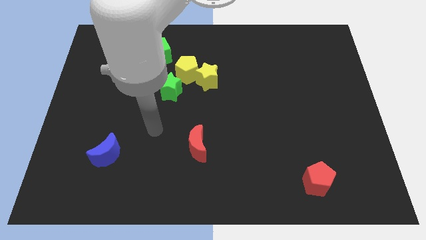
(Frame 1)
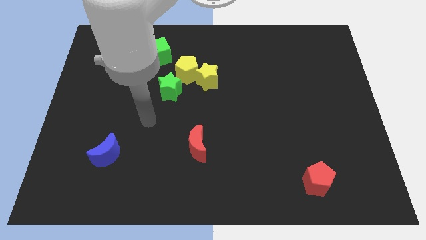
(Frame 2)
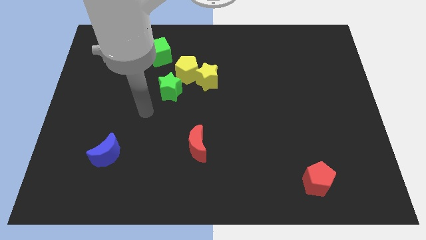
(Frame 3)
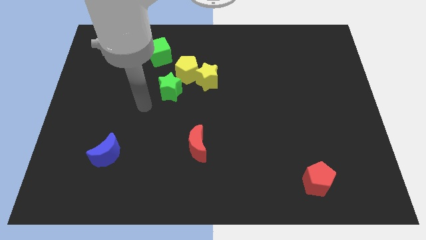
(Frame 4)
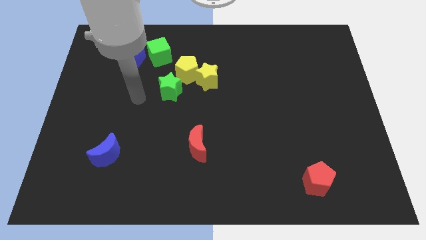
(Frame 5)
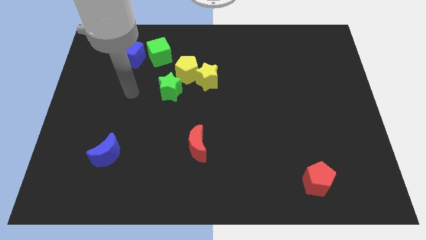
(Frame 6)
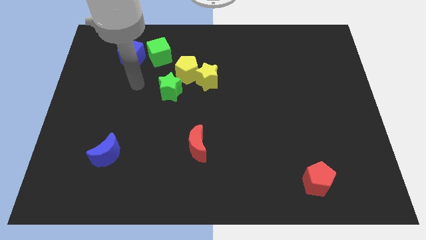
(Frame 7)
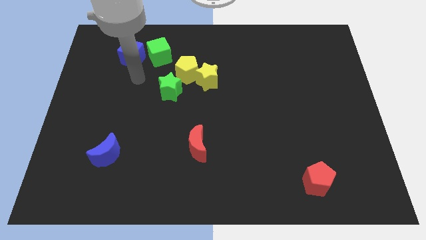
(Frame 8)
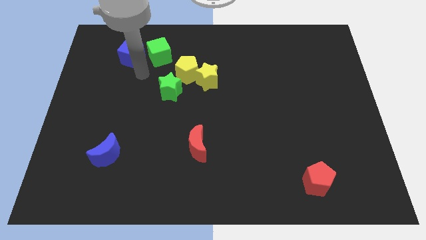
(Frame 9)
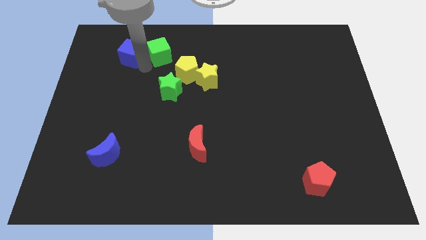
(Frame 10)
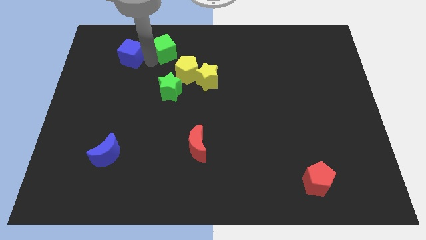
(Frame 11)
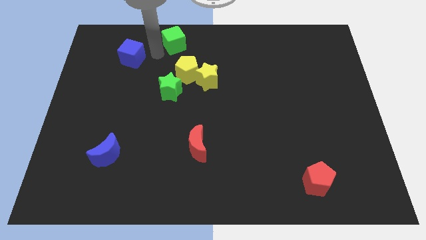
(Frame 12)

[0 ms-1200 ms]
pull the blue cube apart from the green cube

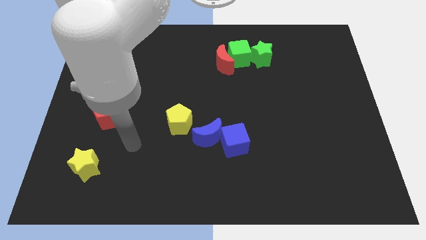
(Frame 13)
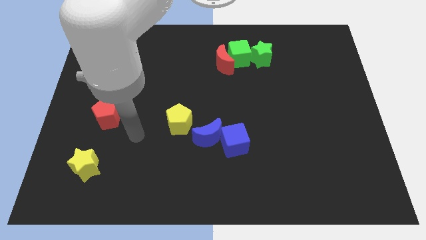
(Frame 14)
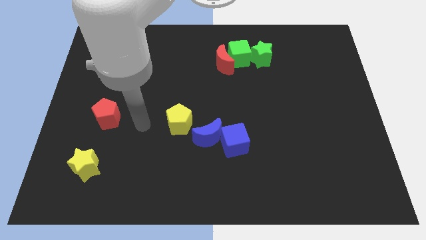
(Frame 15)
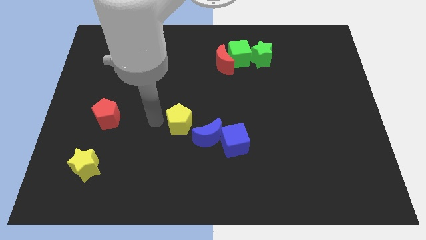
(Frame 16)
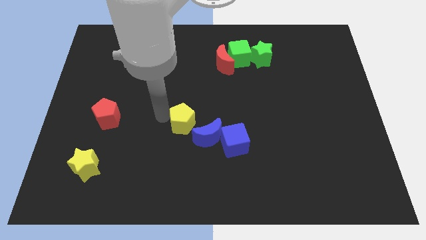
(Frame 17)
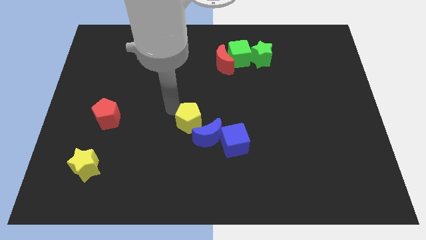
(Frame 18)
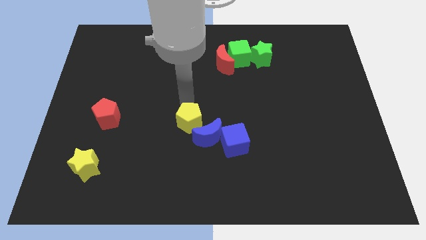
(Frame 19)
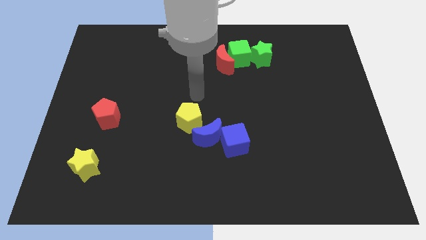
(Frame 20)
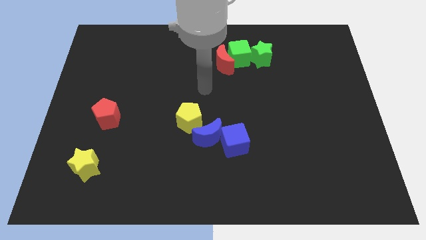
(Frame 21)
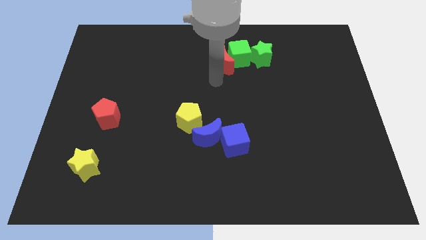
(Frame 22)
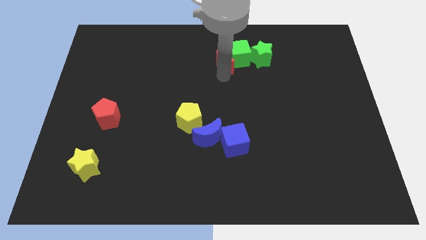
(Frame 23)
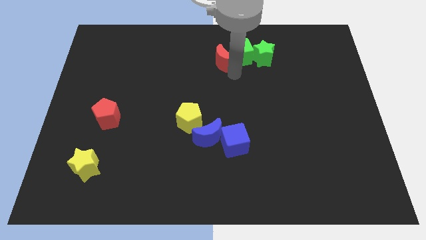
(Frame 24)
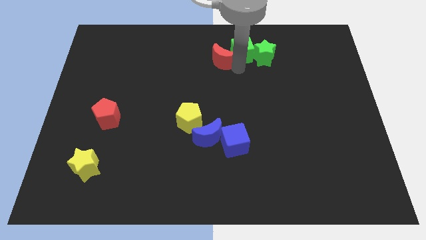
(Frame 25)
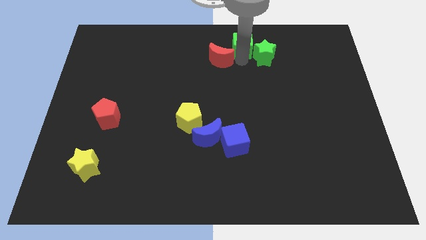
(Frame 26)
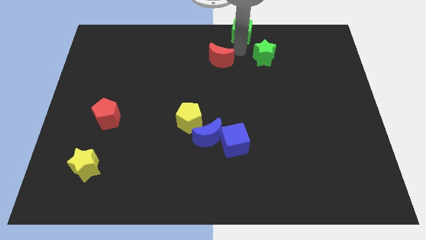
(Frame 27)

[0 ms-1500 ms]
pull the red moon apart from the green cube

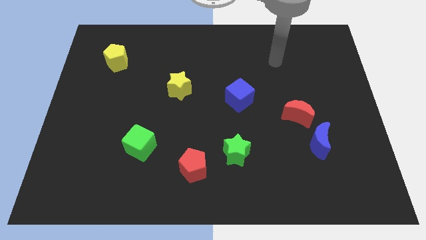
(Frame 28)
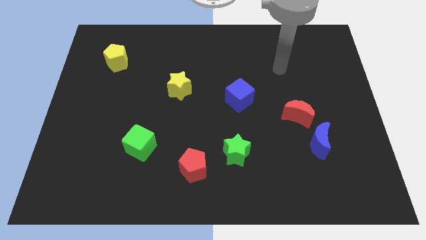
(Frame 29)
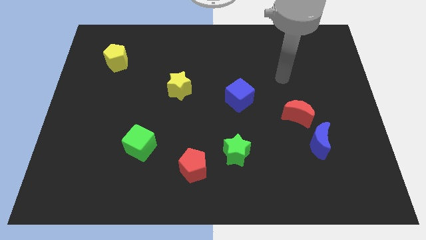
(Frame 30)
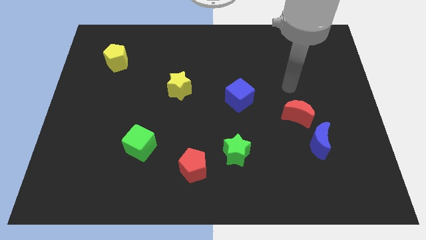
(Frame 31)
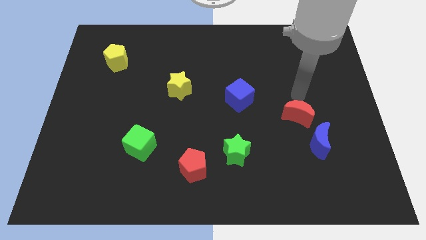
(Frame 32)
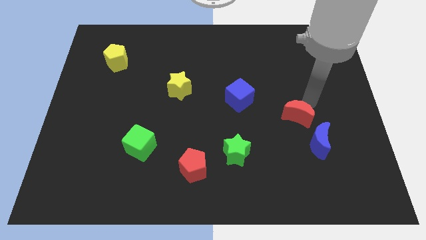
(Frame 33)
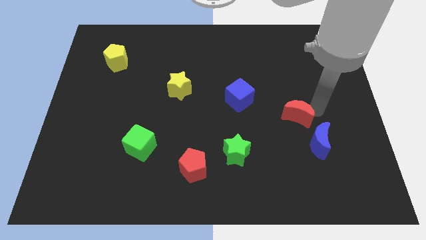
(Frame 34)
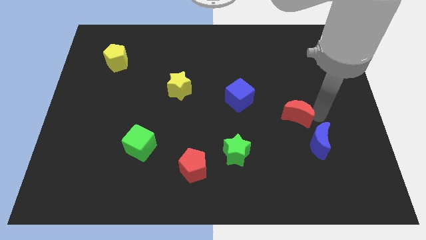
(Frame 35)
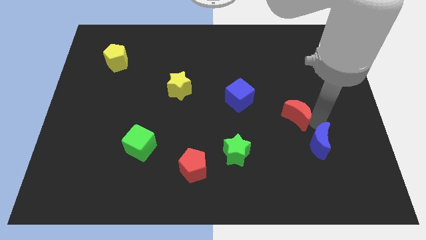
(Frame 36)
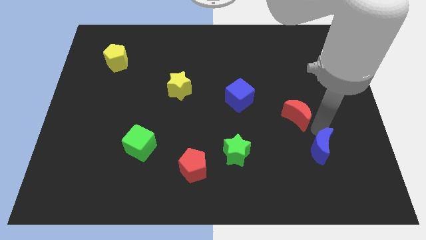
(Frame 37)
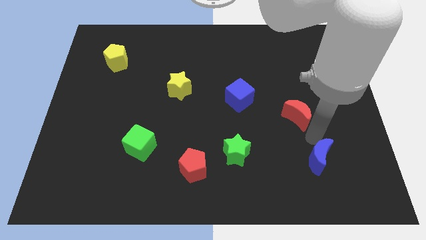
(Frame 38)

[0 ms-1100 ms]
pull the red moon apart from the blue moon

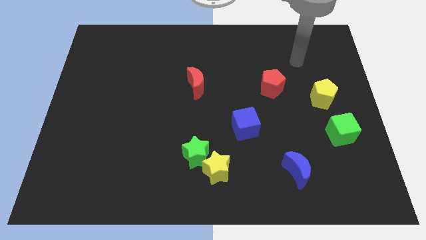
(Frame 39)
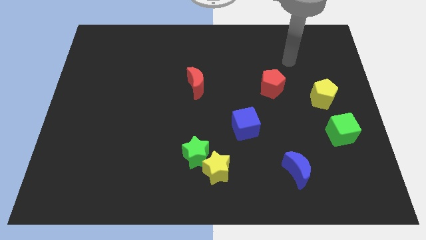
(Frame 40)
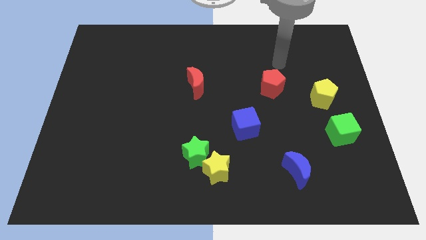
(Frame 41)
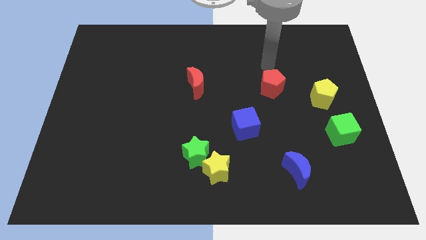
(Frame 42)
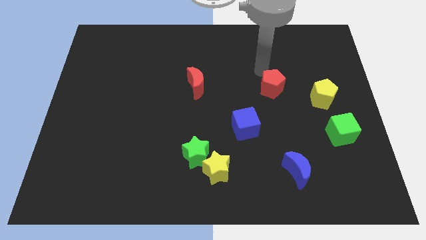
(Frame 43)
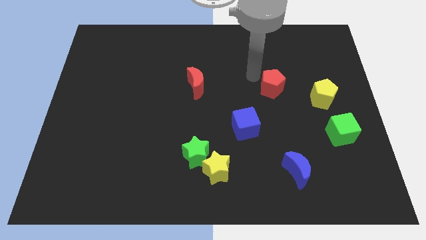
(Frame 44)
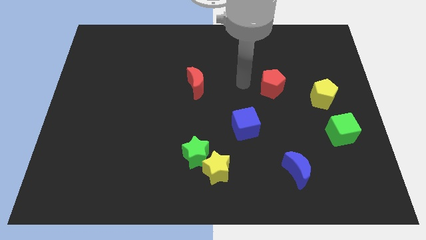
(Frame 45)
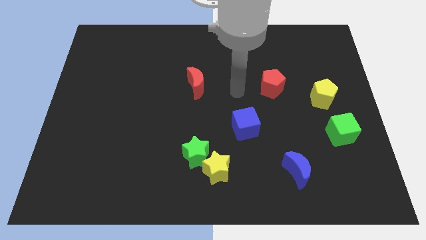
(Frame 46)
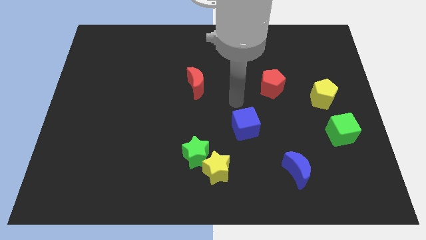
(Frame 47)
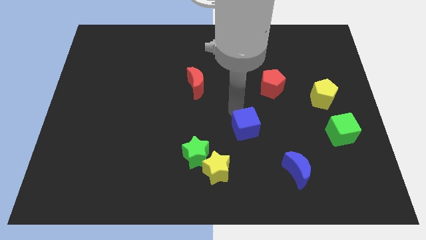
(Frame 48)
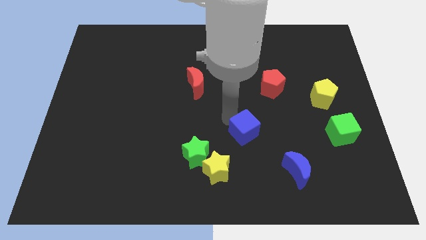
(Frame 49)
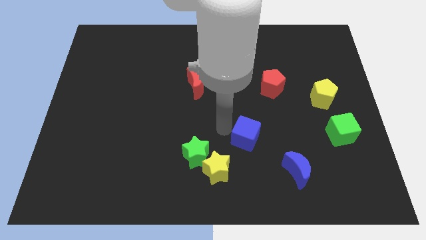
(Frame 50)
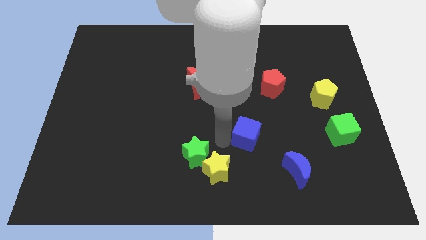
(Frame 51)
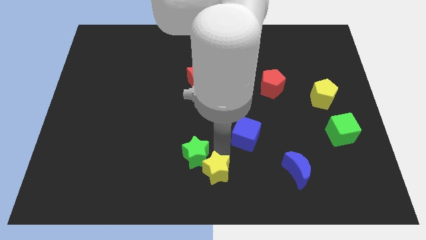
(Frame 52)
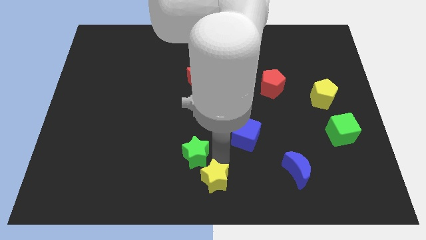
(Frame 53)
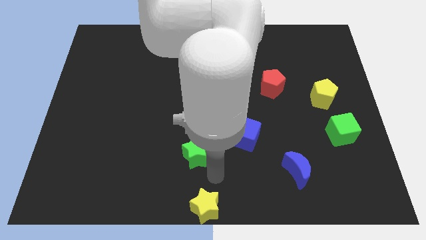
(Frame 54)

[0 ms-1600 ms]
separate the green star from the yellow star

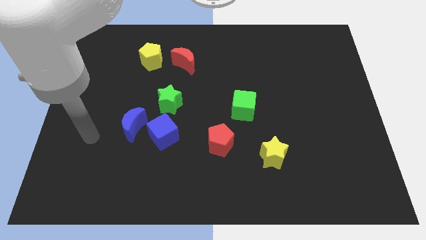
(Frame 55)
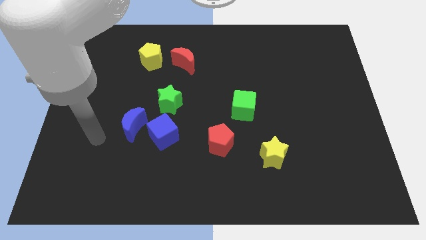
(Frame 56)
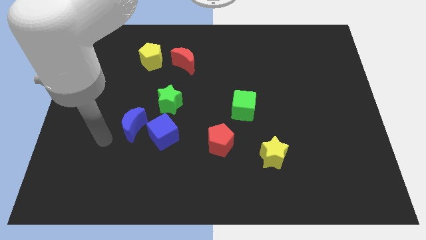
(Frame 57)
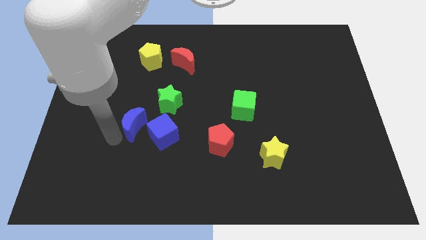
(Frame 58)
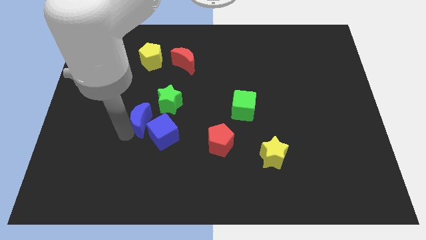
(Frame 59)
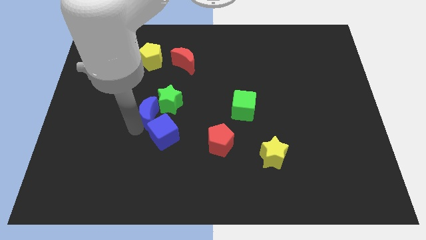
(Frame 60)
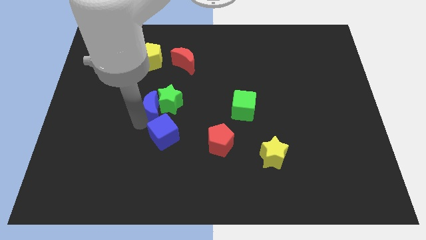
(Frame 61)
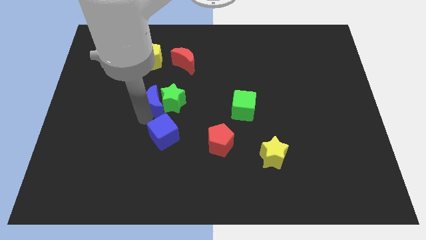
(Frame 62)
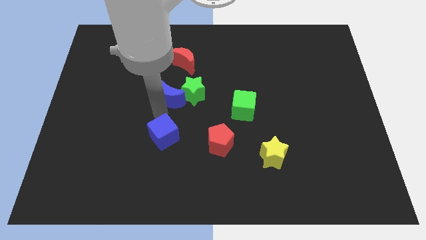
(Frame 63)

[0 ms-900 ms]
separate the blue cube from the blue moon and green star

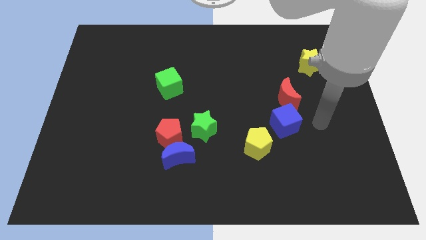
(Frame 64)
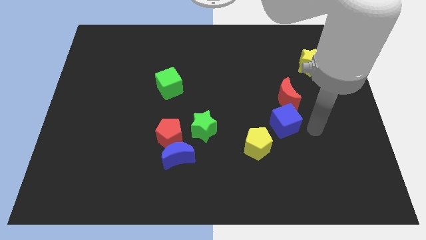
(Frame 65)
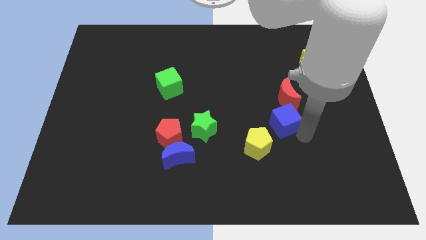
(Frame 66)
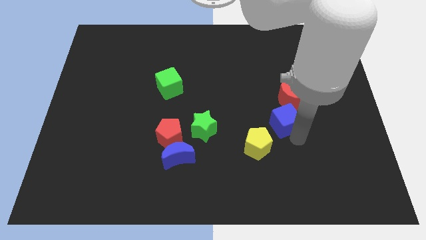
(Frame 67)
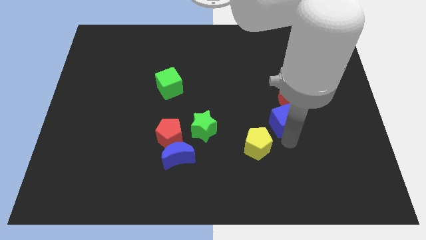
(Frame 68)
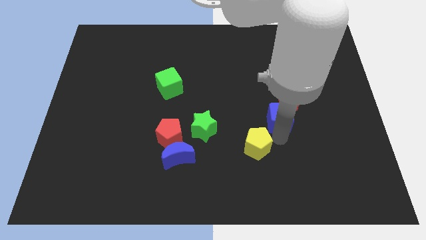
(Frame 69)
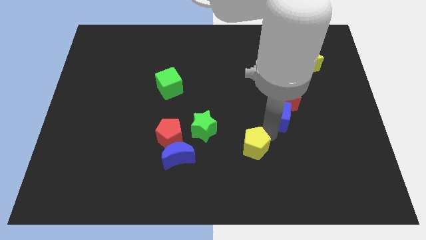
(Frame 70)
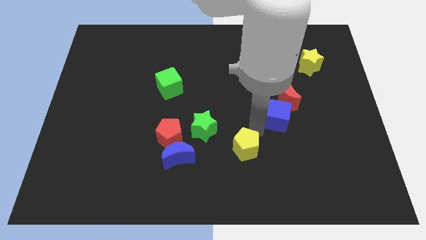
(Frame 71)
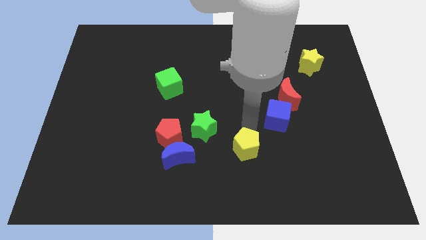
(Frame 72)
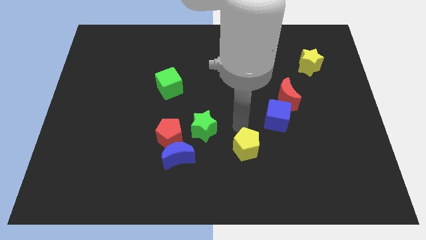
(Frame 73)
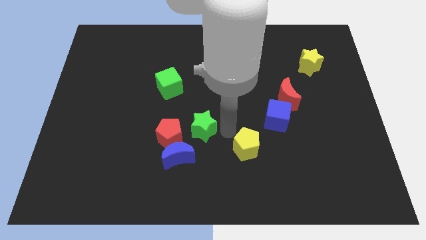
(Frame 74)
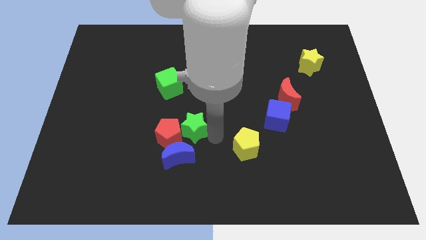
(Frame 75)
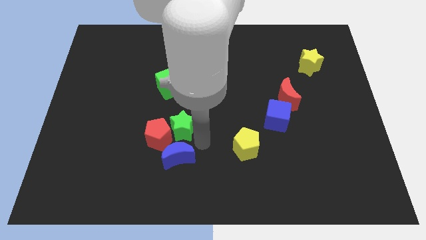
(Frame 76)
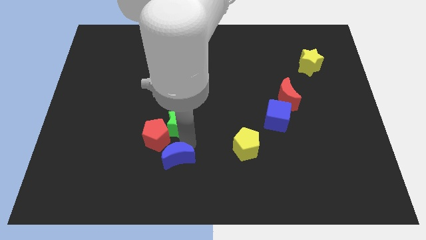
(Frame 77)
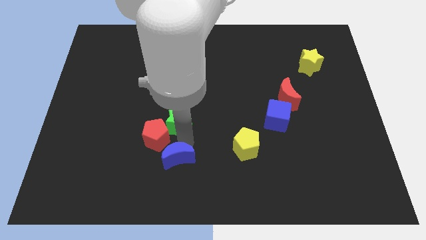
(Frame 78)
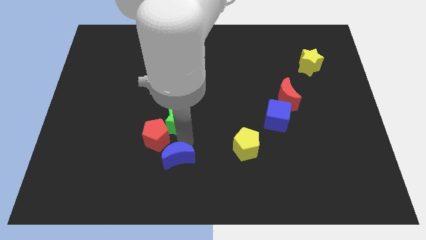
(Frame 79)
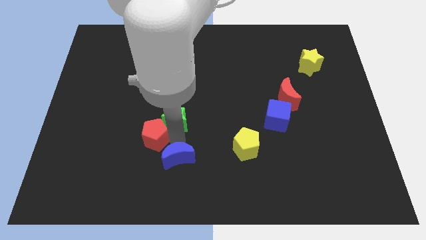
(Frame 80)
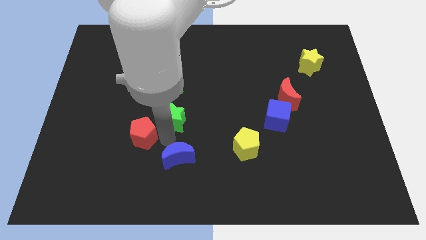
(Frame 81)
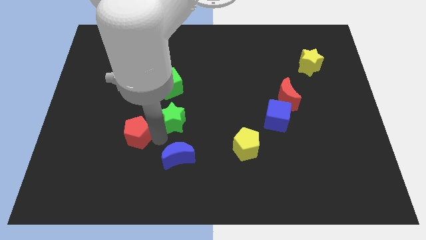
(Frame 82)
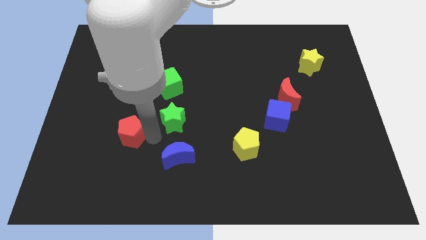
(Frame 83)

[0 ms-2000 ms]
pull the red pentagon apart from the blue moon and green star

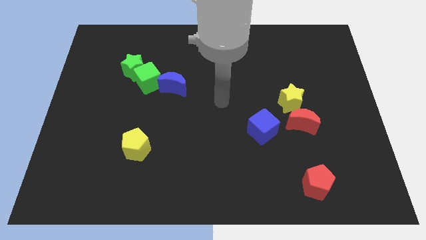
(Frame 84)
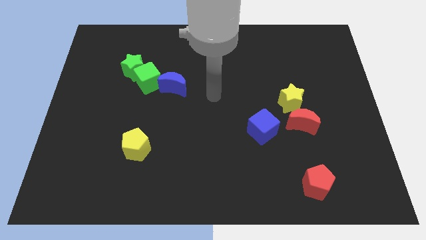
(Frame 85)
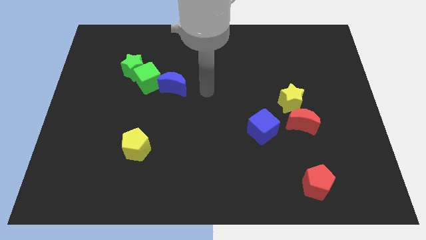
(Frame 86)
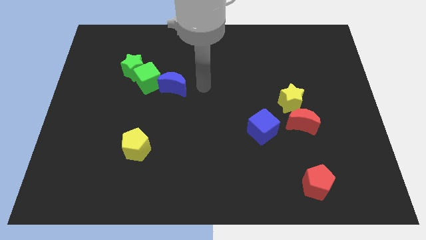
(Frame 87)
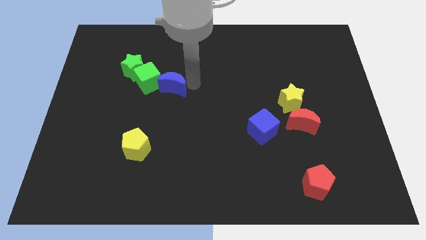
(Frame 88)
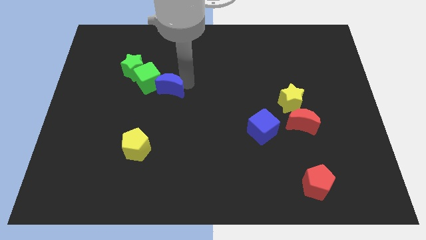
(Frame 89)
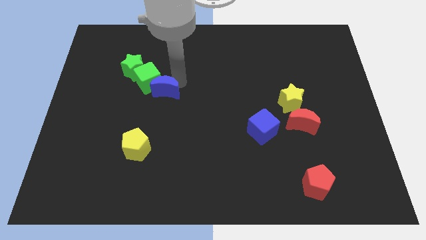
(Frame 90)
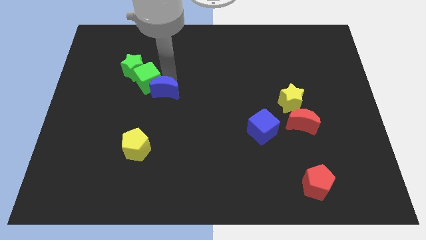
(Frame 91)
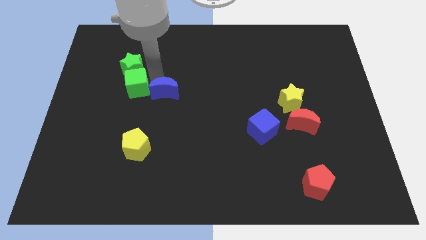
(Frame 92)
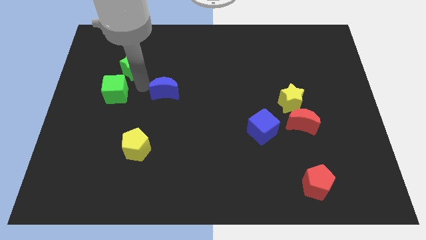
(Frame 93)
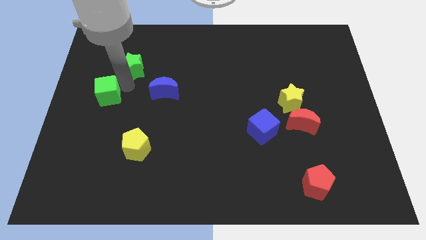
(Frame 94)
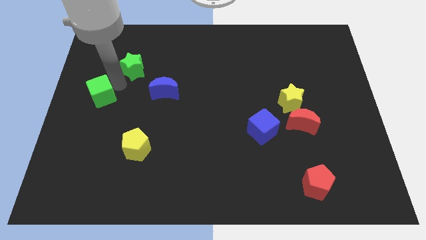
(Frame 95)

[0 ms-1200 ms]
move the green star away from the green cube
